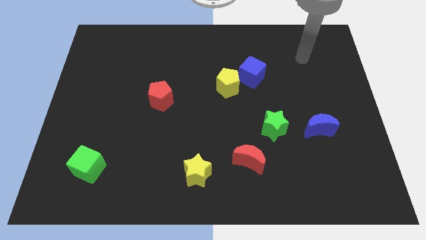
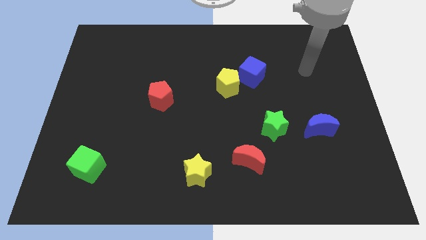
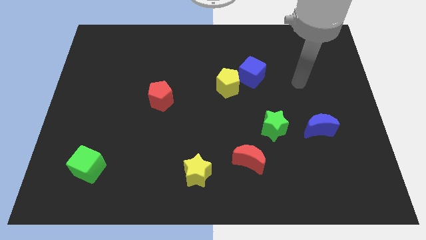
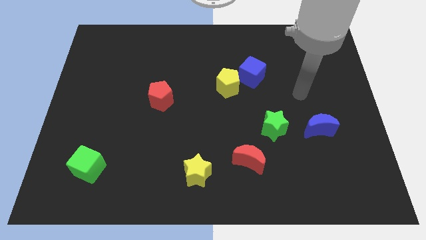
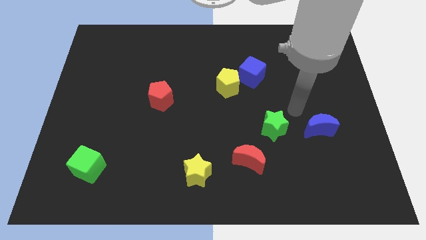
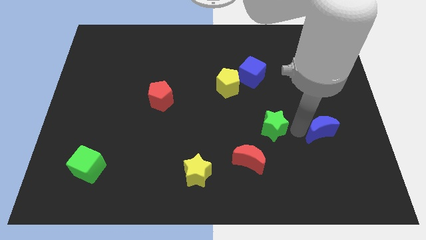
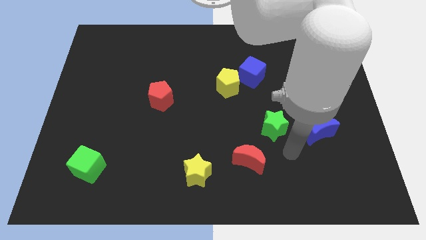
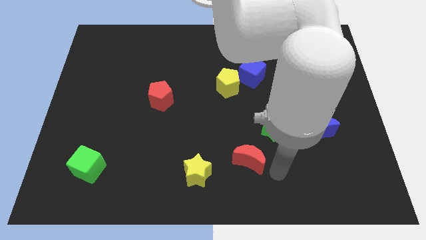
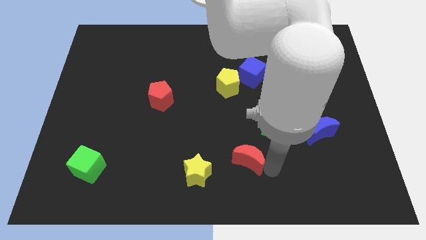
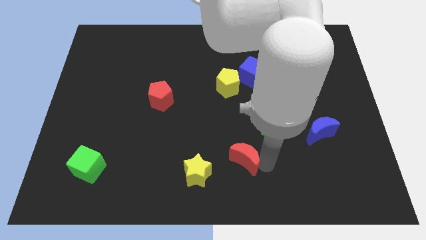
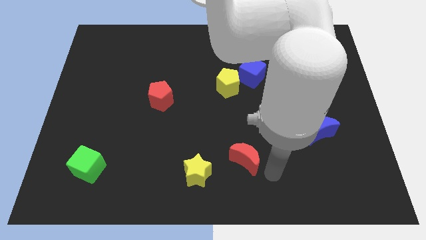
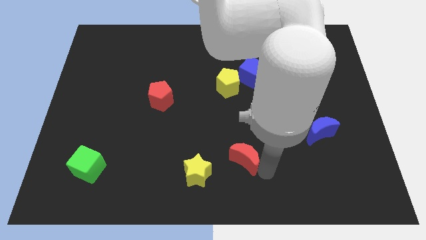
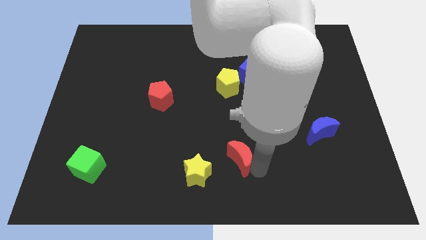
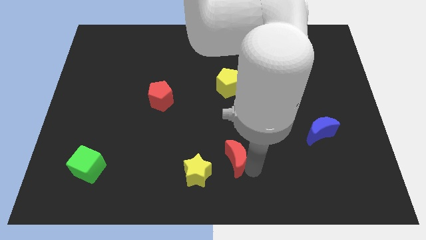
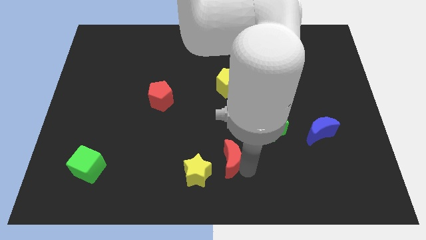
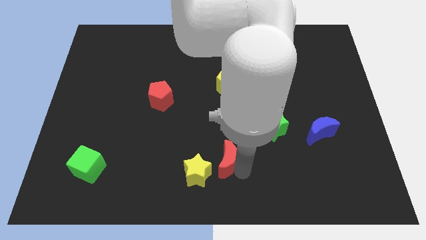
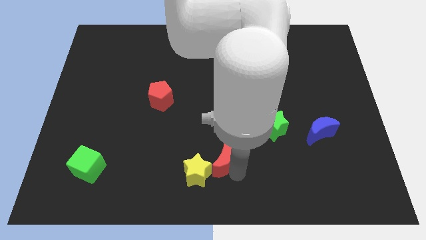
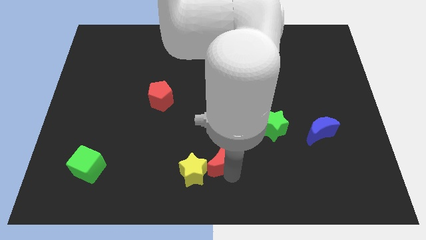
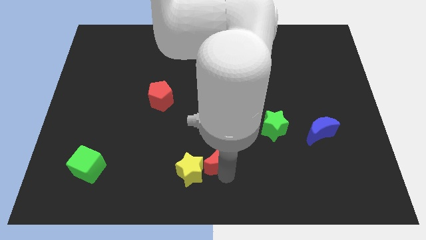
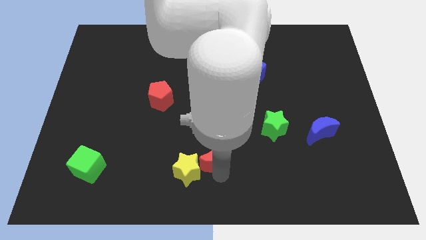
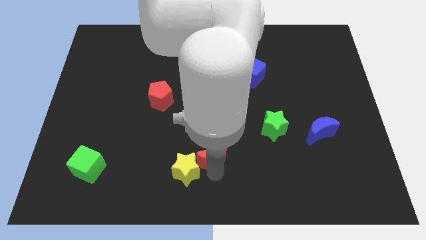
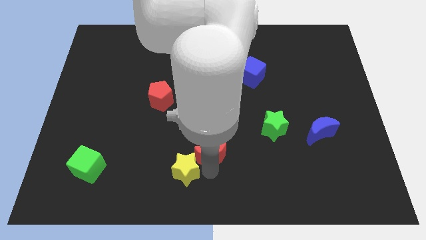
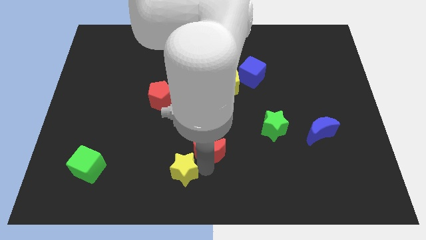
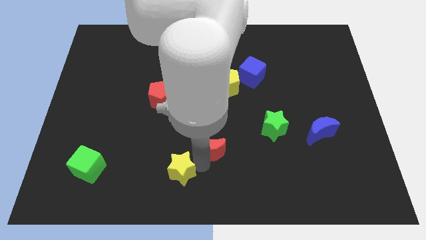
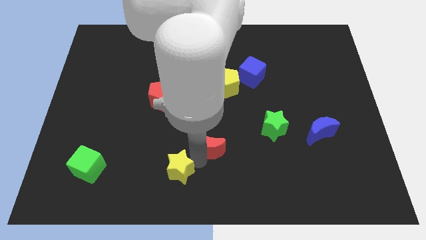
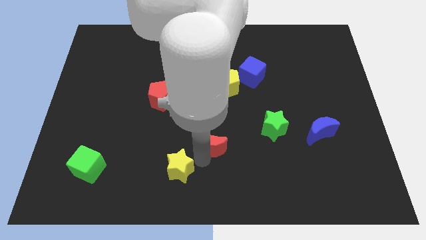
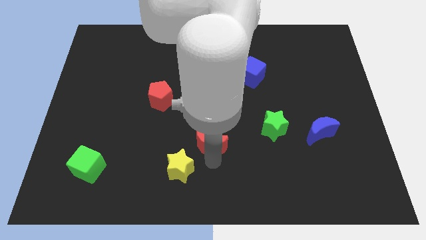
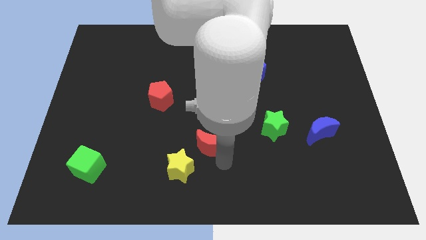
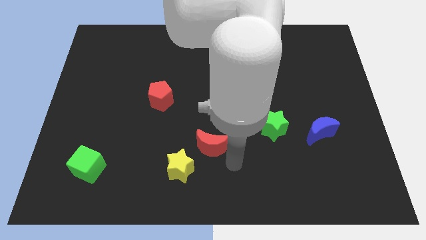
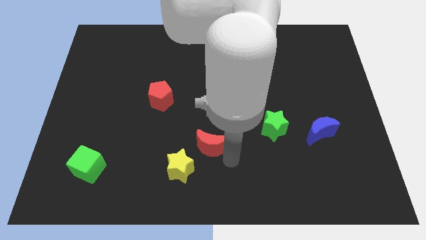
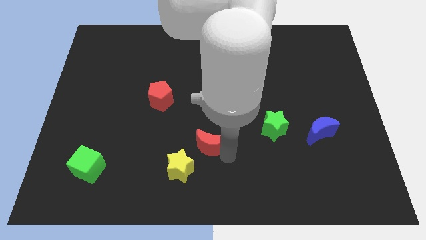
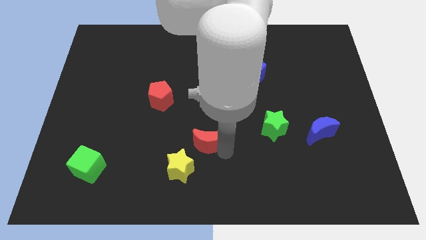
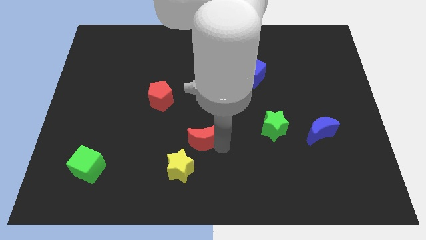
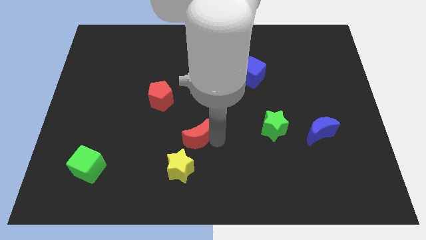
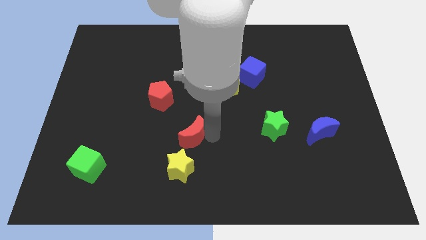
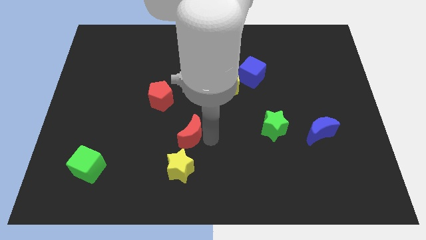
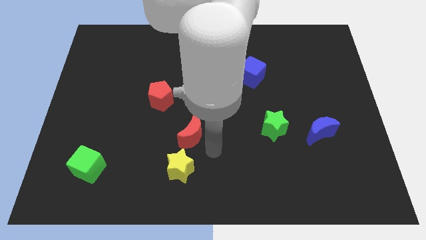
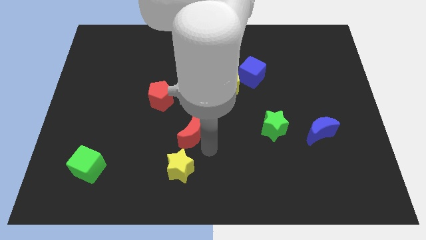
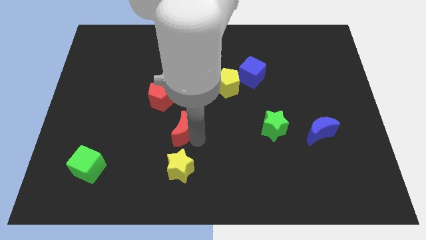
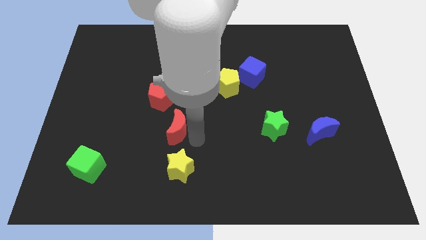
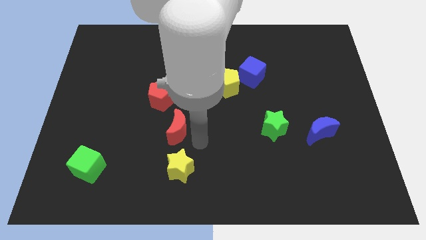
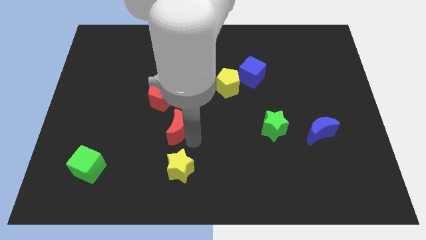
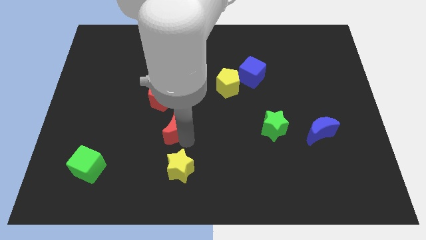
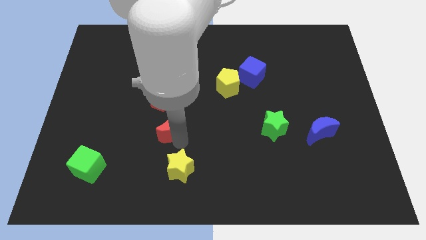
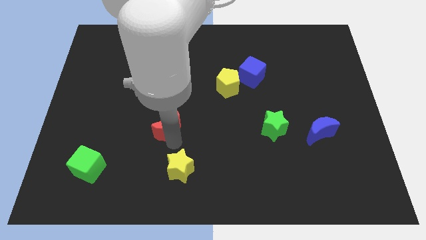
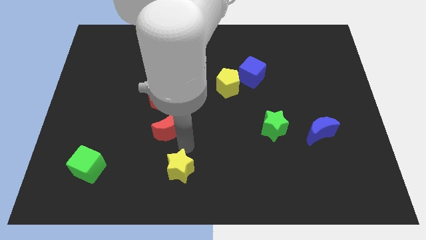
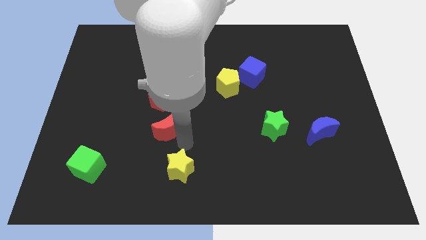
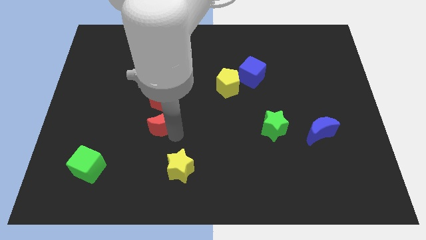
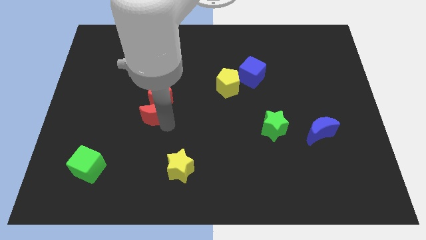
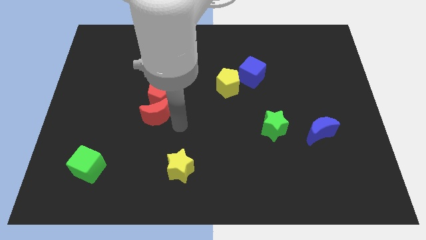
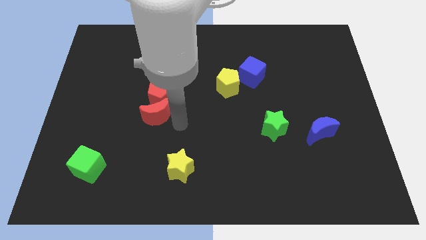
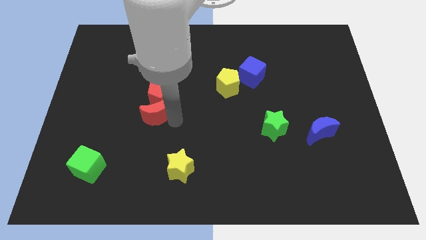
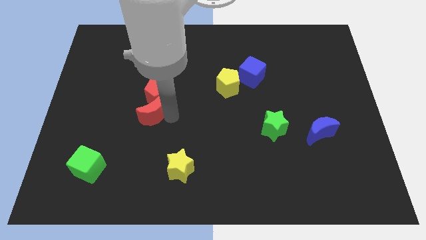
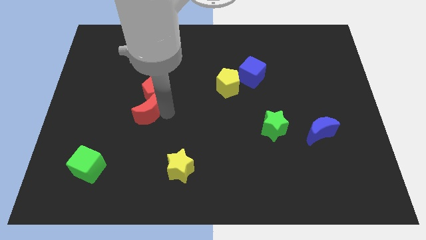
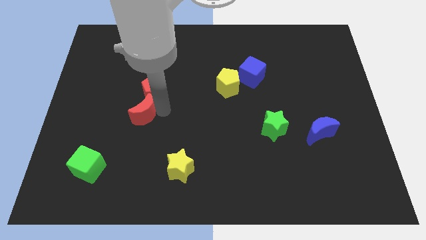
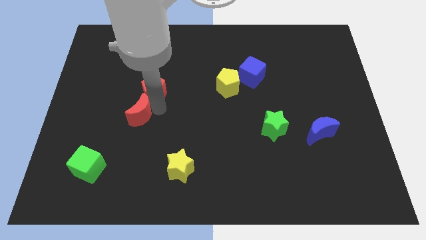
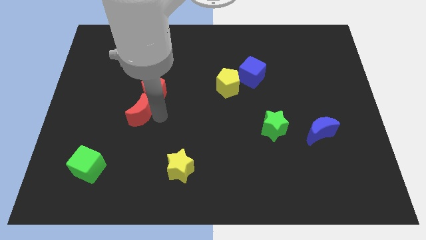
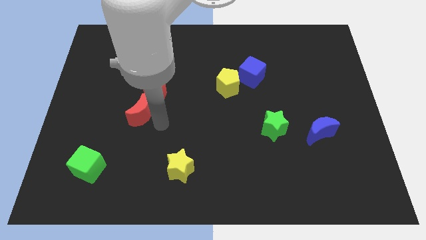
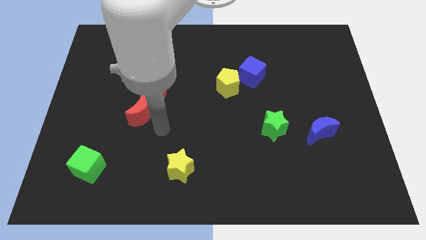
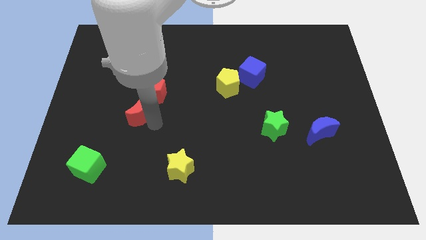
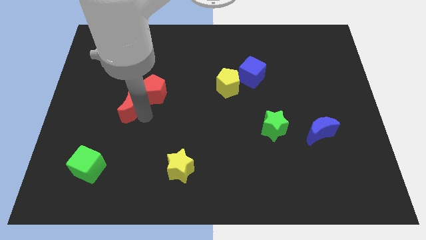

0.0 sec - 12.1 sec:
put the red moon just left of the red pentagon

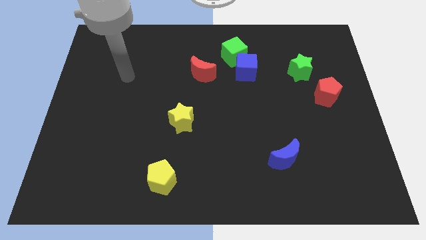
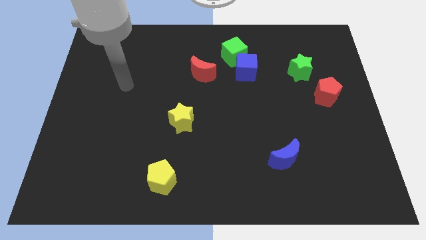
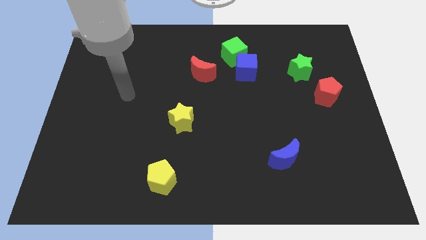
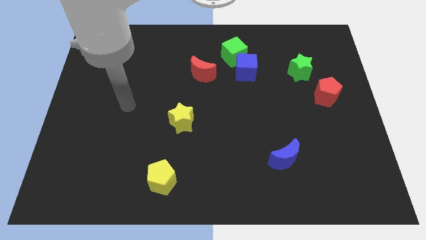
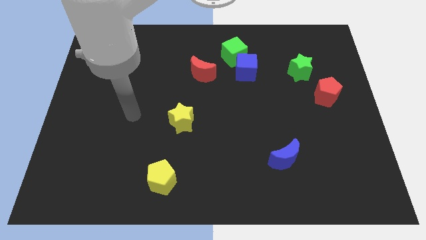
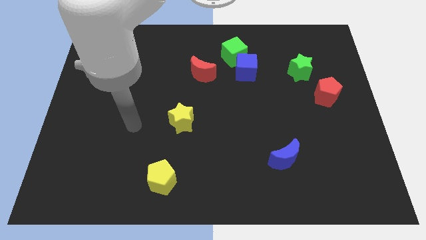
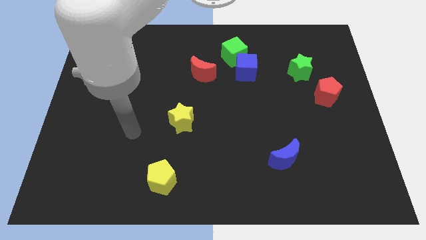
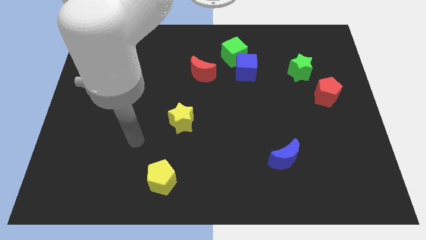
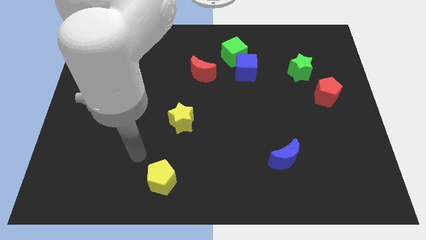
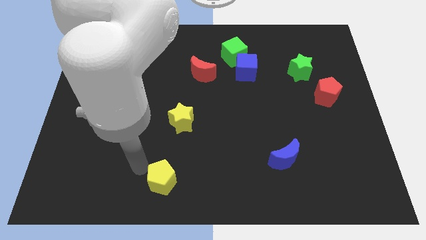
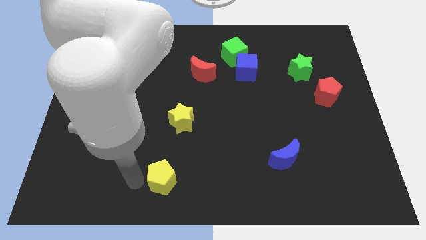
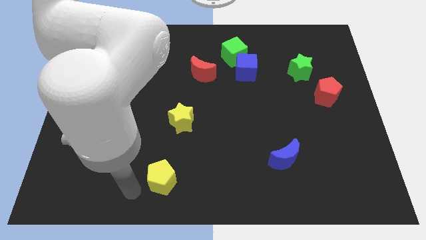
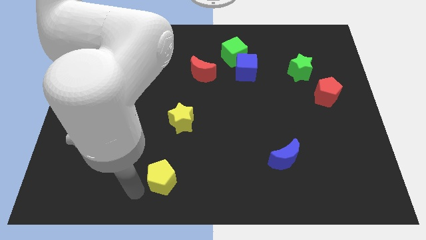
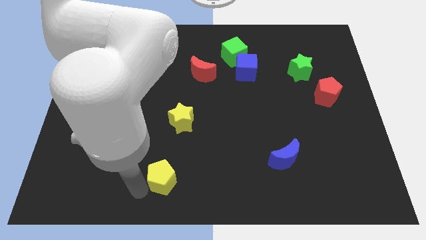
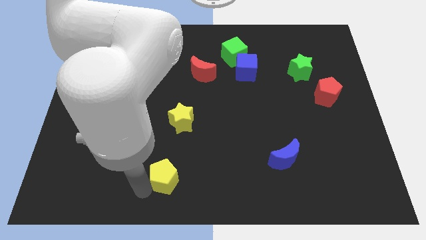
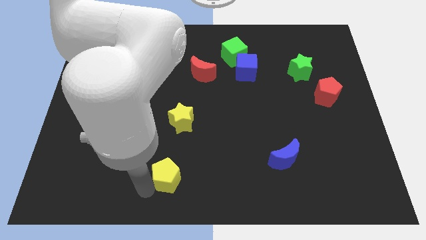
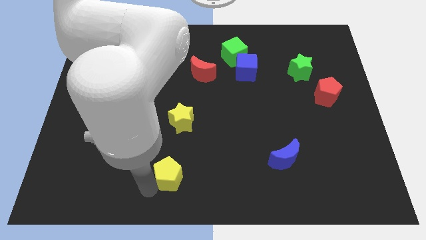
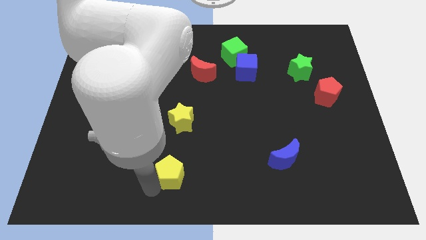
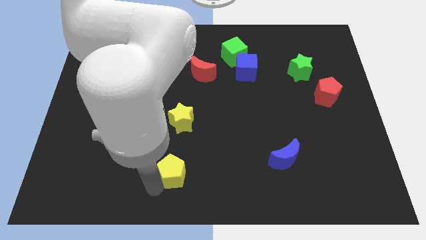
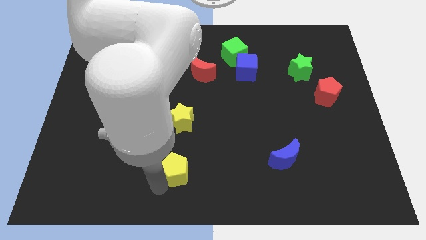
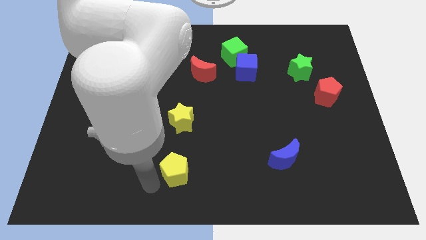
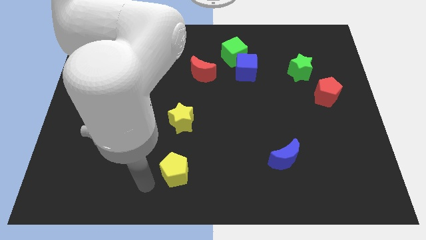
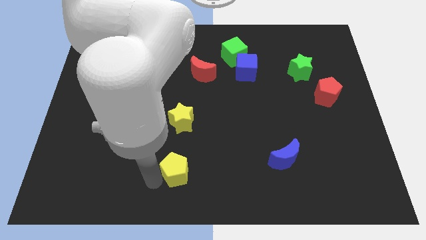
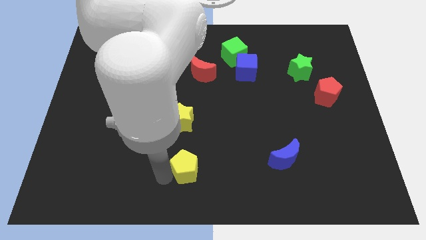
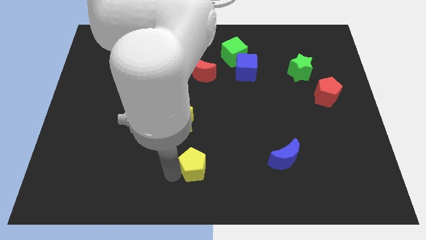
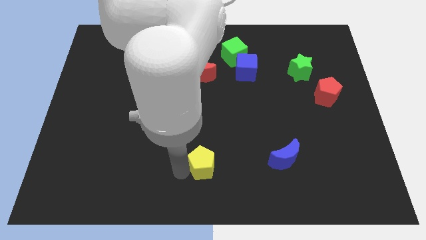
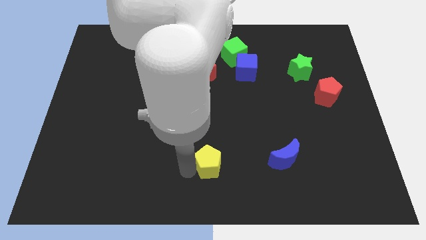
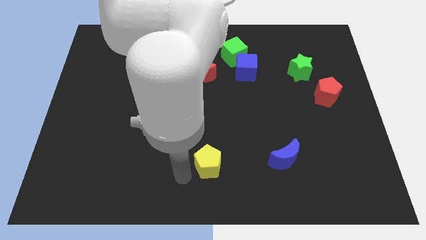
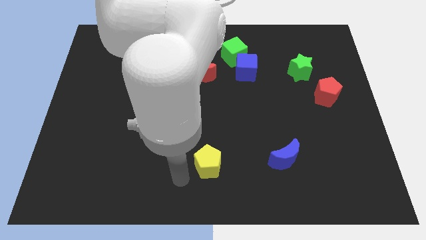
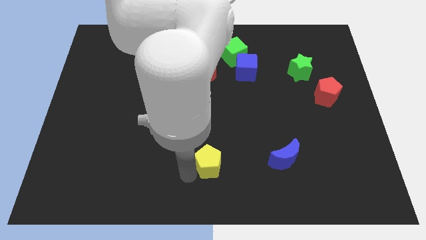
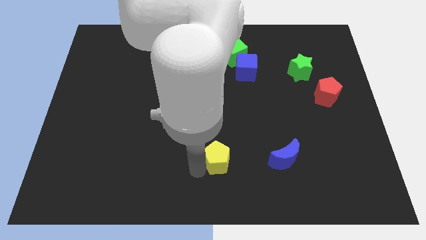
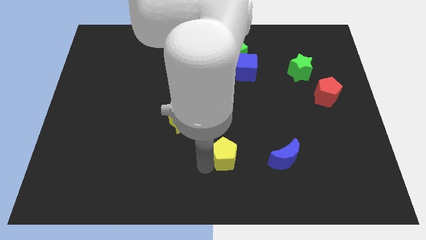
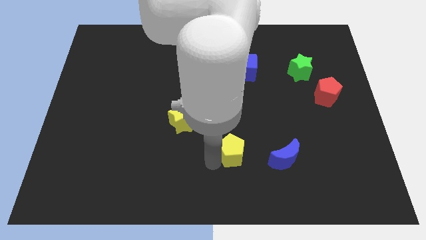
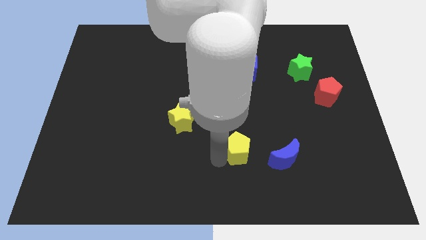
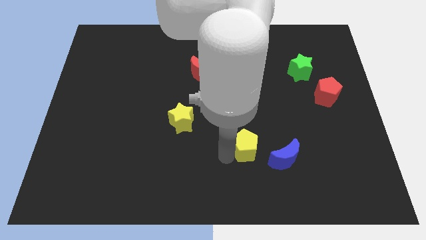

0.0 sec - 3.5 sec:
move the yellow pentagon to the top left side of the blue moon
